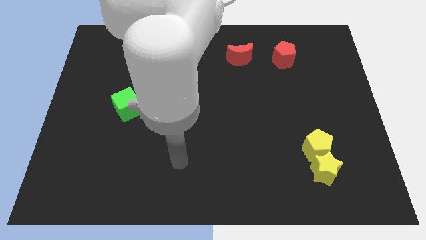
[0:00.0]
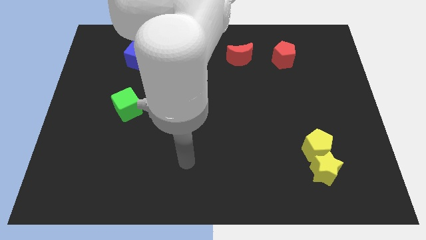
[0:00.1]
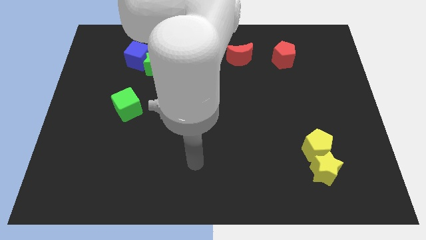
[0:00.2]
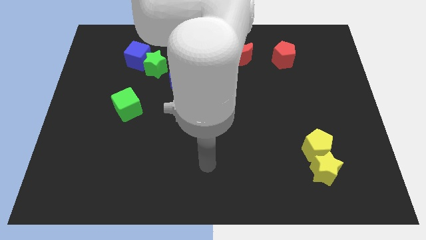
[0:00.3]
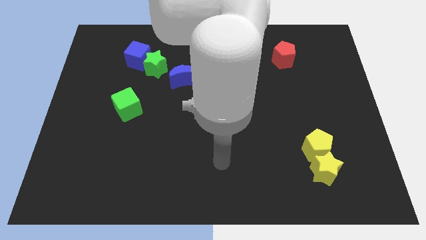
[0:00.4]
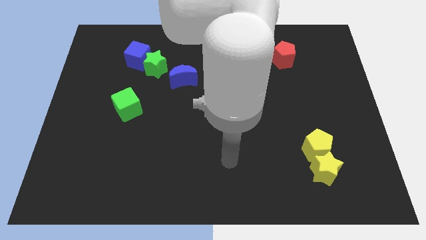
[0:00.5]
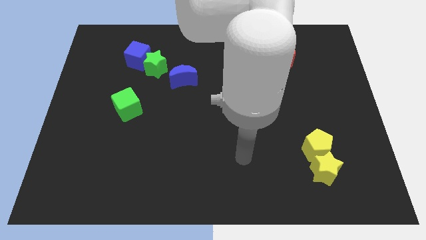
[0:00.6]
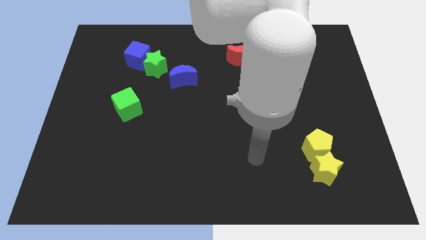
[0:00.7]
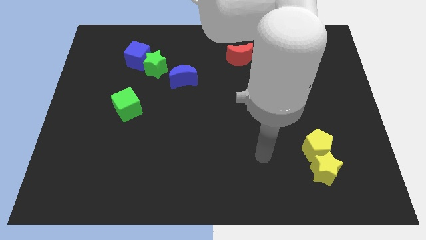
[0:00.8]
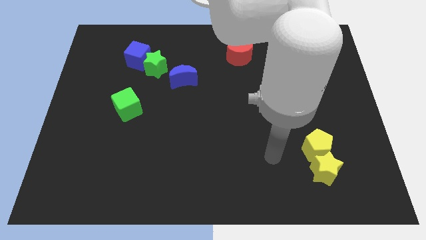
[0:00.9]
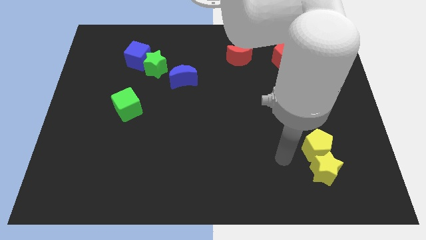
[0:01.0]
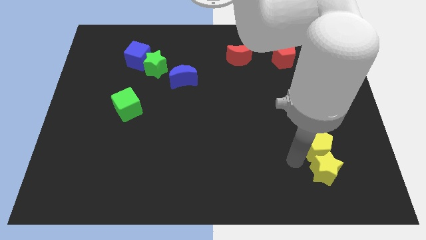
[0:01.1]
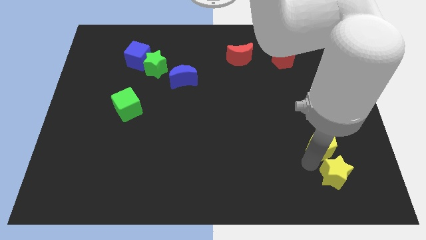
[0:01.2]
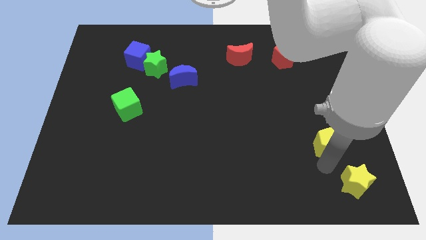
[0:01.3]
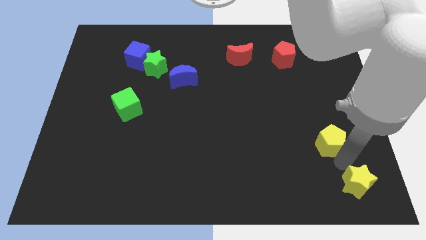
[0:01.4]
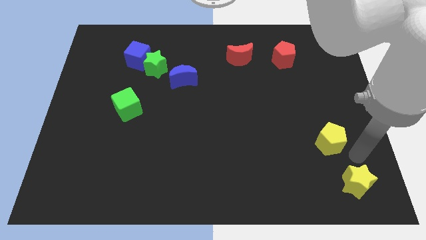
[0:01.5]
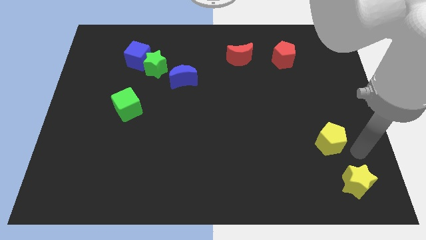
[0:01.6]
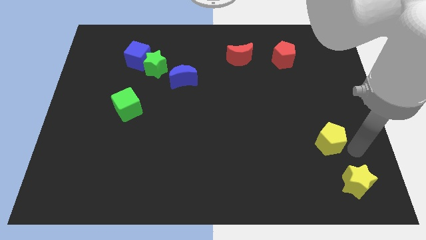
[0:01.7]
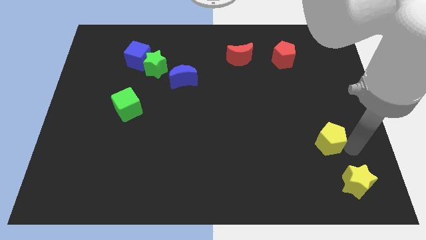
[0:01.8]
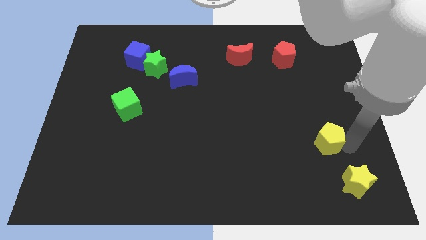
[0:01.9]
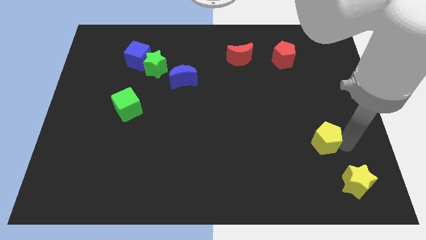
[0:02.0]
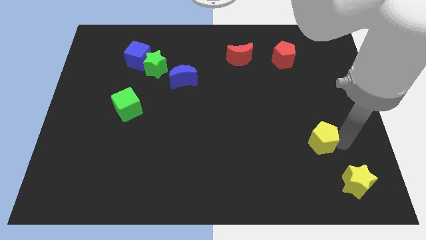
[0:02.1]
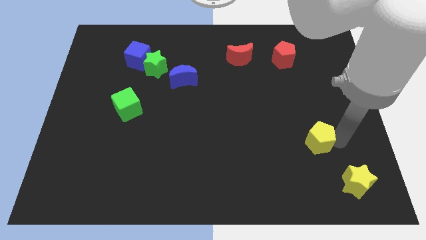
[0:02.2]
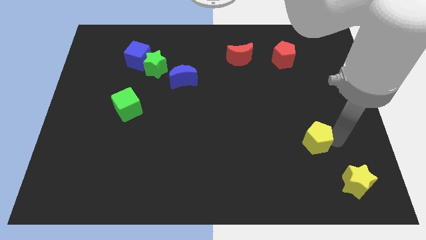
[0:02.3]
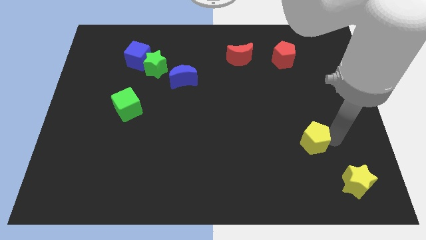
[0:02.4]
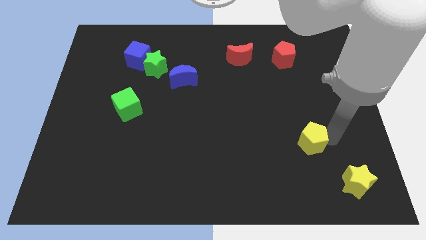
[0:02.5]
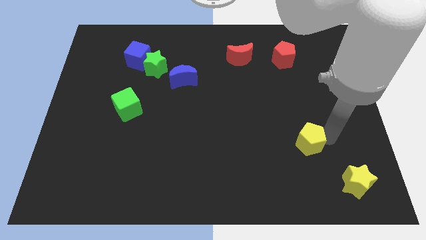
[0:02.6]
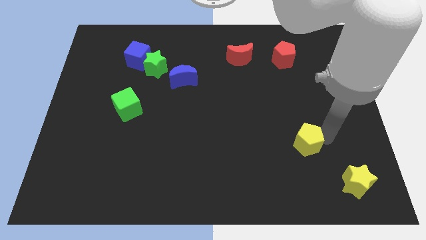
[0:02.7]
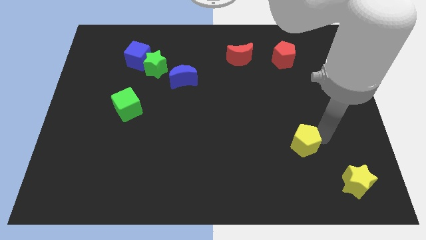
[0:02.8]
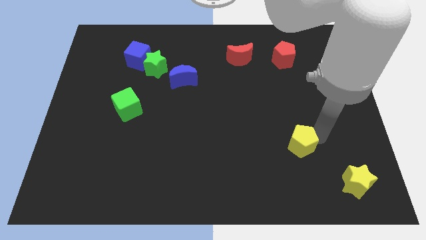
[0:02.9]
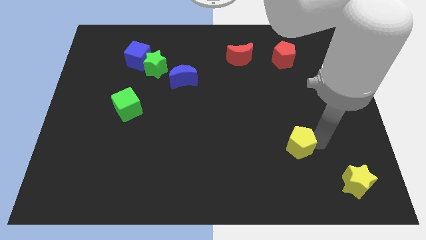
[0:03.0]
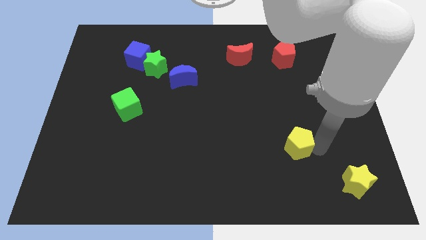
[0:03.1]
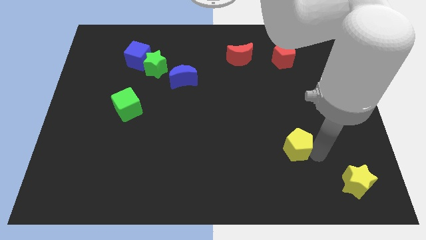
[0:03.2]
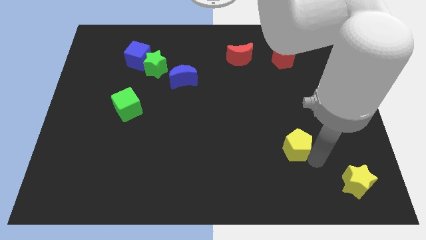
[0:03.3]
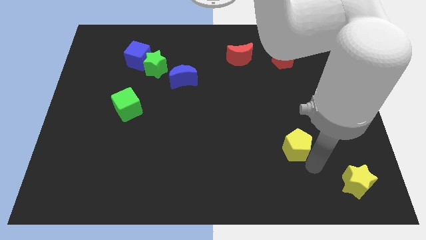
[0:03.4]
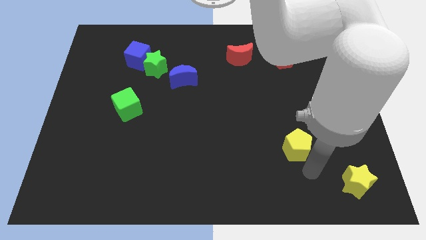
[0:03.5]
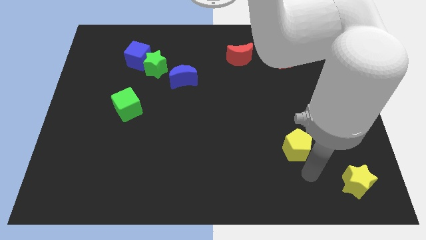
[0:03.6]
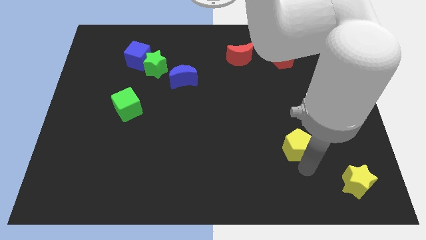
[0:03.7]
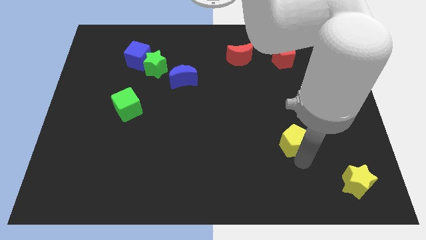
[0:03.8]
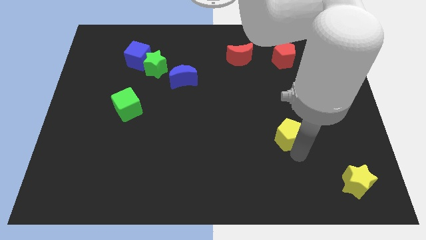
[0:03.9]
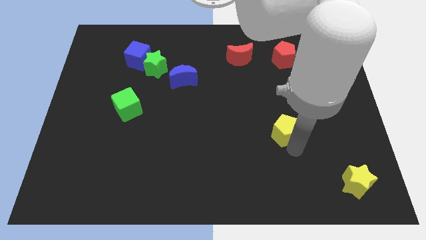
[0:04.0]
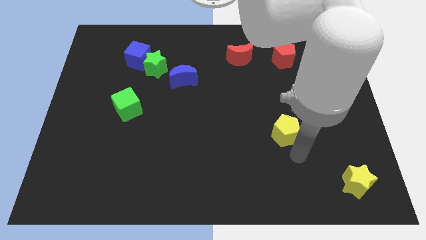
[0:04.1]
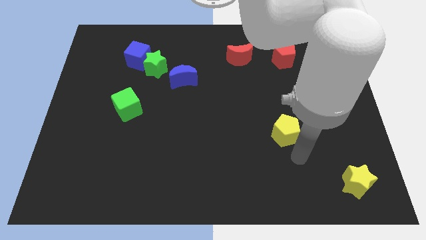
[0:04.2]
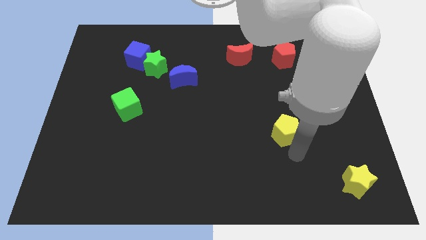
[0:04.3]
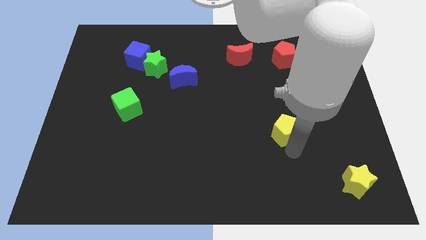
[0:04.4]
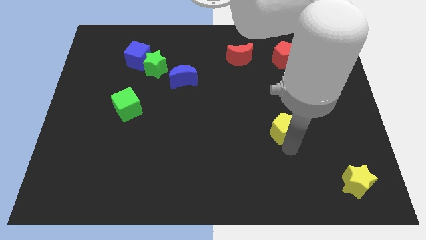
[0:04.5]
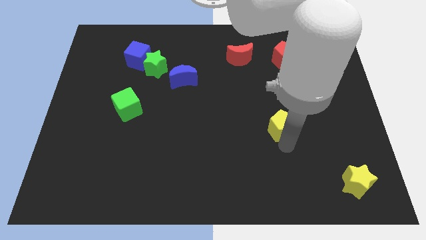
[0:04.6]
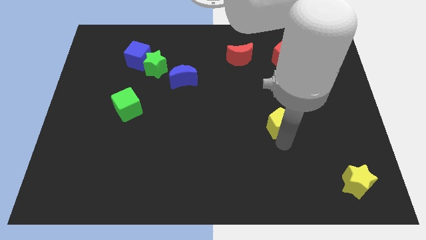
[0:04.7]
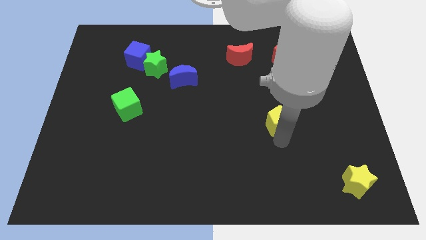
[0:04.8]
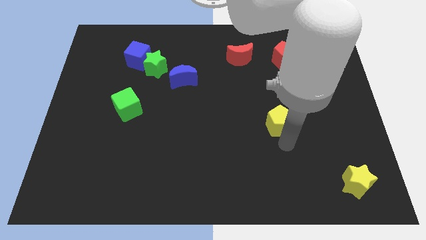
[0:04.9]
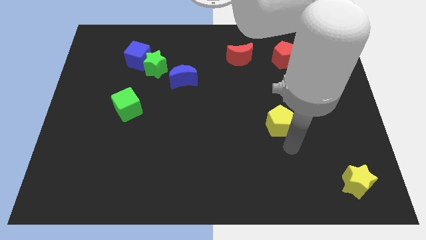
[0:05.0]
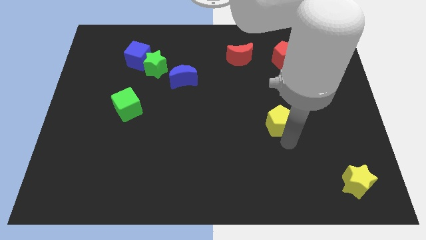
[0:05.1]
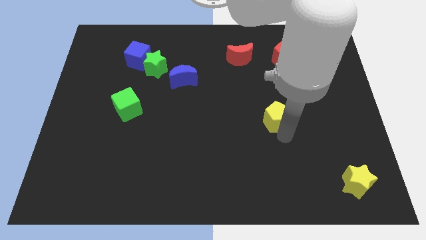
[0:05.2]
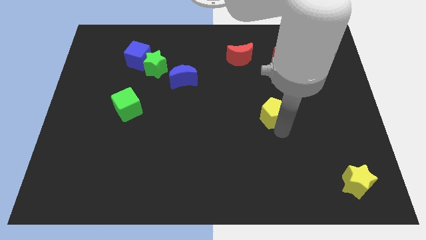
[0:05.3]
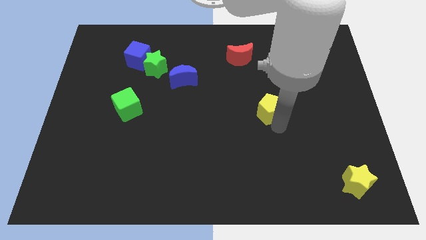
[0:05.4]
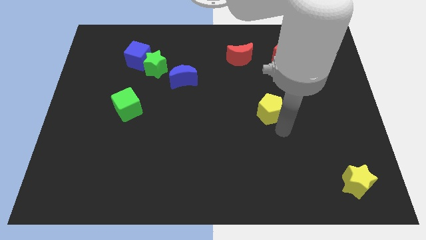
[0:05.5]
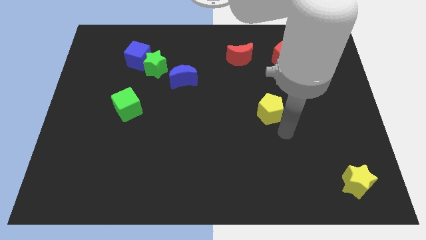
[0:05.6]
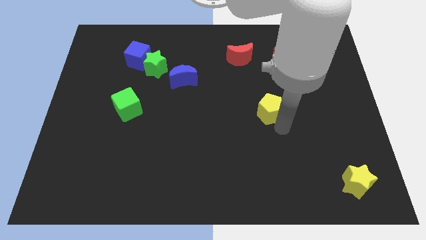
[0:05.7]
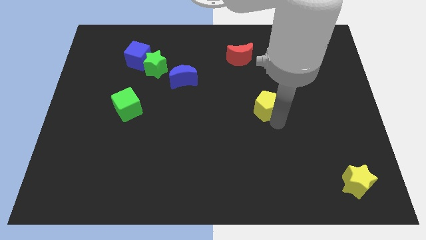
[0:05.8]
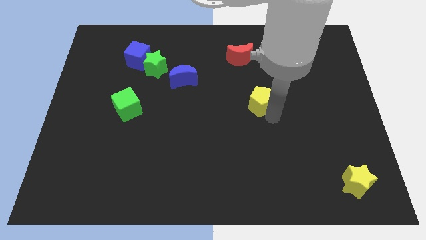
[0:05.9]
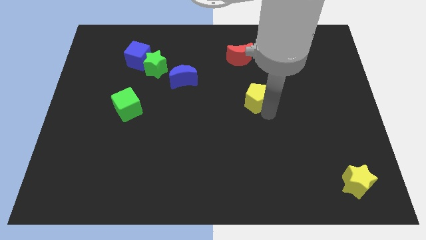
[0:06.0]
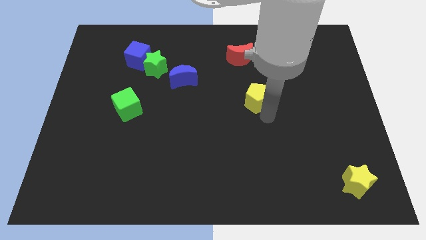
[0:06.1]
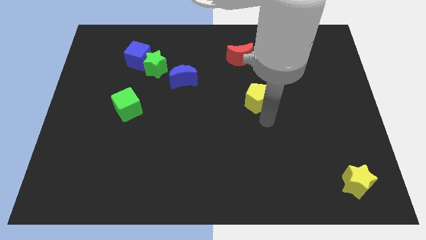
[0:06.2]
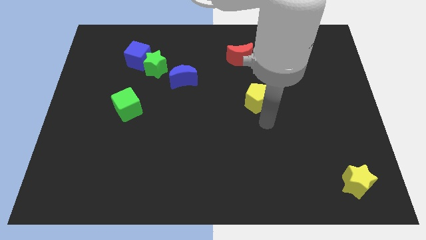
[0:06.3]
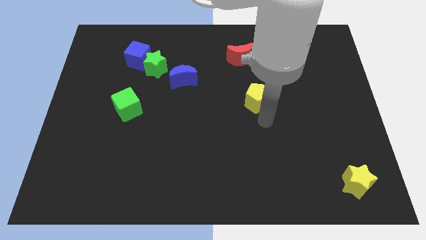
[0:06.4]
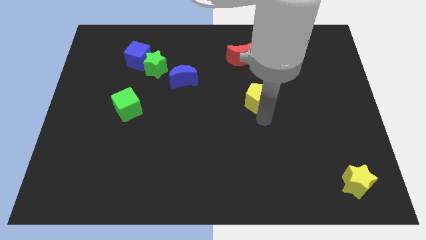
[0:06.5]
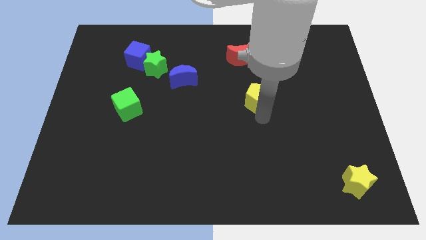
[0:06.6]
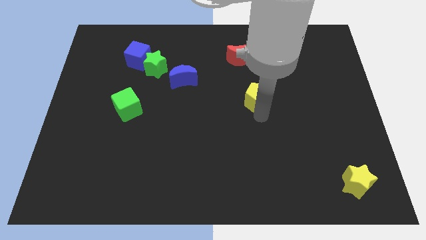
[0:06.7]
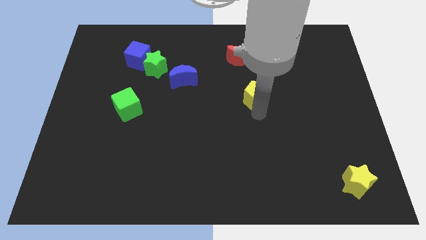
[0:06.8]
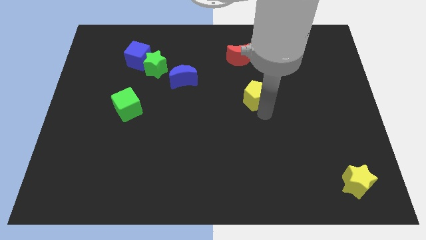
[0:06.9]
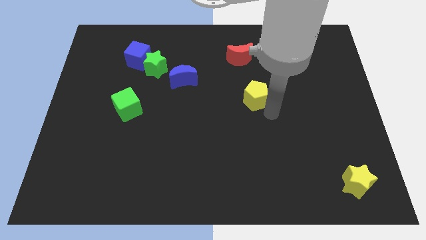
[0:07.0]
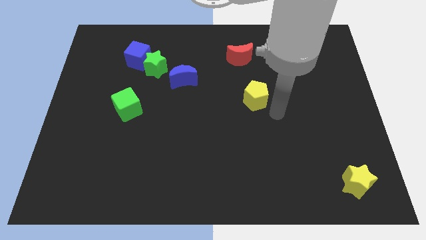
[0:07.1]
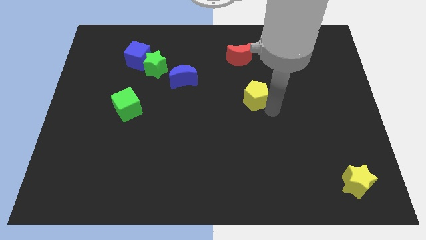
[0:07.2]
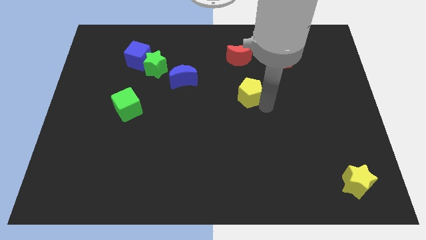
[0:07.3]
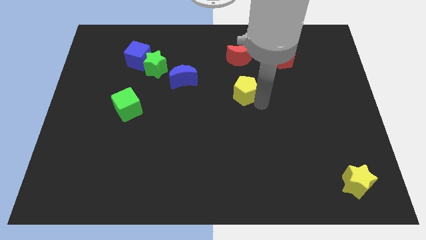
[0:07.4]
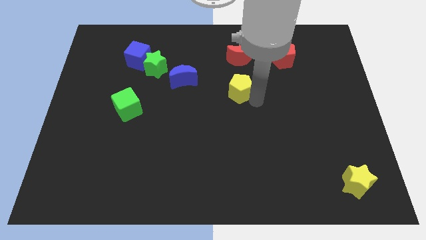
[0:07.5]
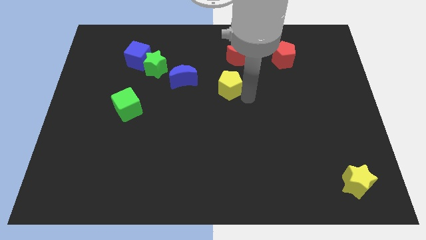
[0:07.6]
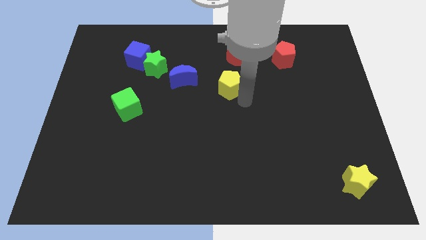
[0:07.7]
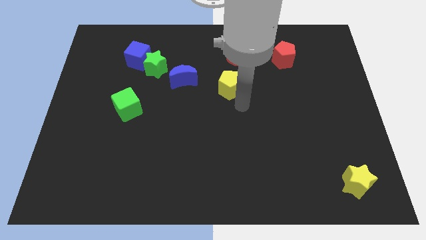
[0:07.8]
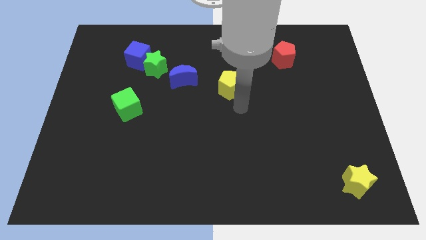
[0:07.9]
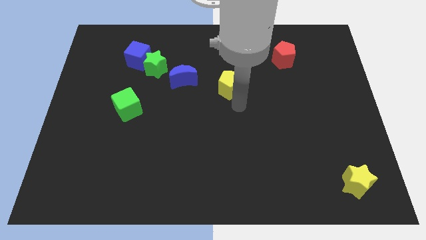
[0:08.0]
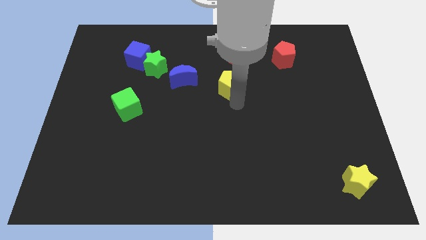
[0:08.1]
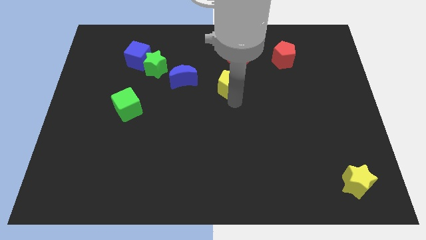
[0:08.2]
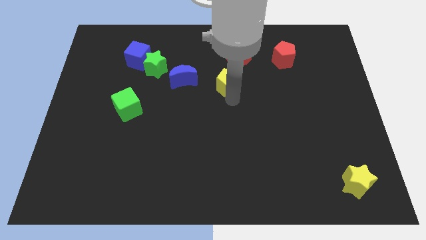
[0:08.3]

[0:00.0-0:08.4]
slide the yellow pentagon to the bottom left side of the red moon
